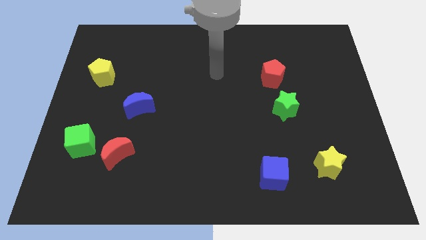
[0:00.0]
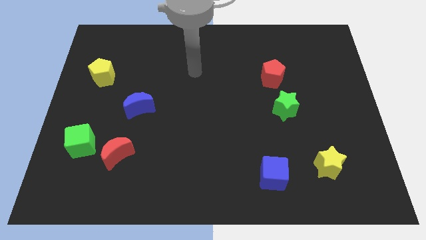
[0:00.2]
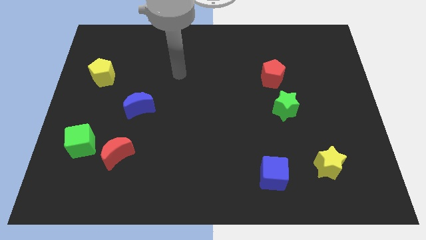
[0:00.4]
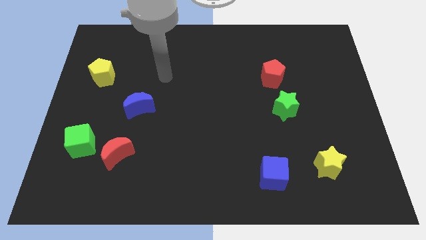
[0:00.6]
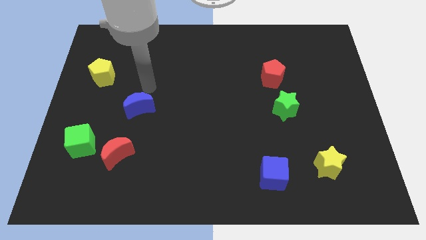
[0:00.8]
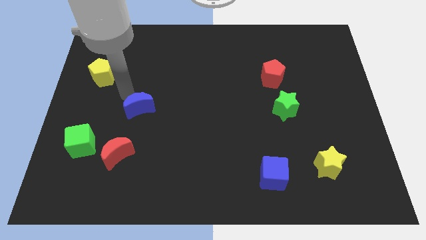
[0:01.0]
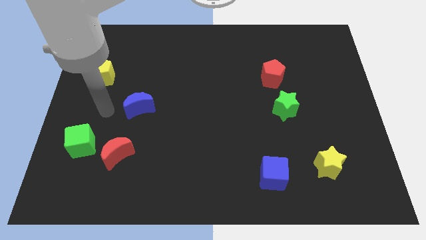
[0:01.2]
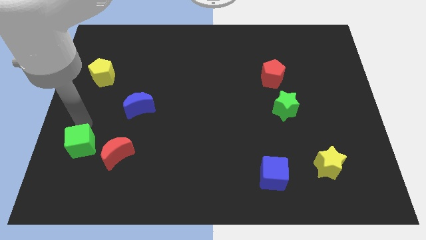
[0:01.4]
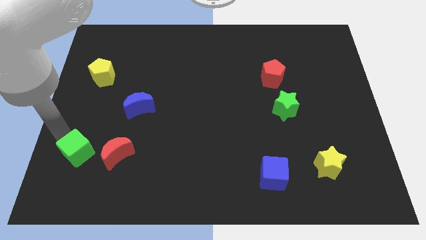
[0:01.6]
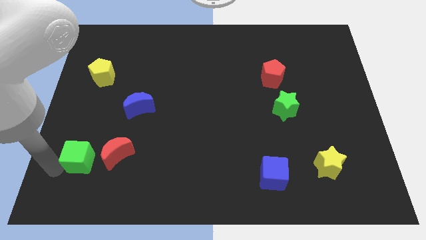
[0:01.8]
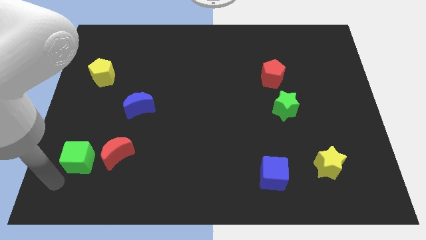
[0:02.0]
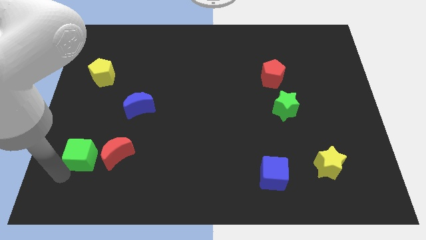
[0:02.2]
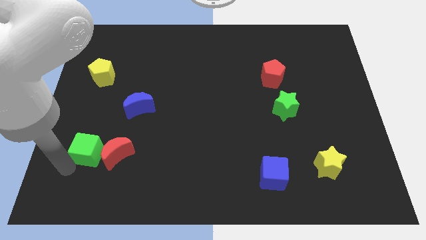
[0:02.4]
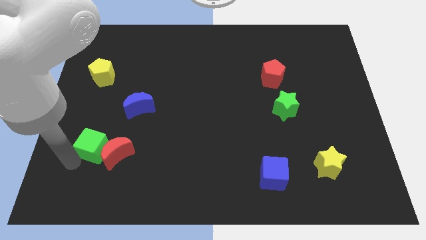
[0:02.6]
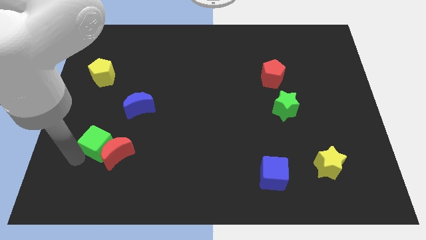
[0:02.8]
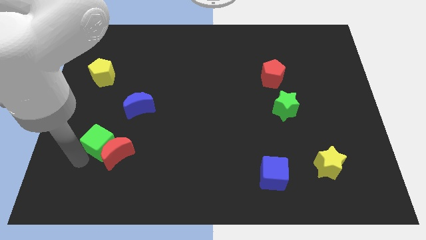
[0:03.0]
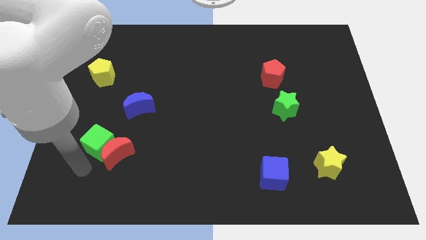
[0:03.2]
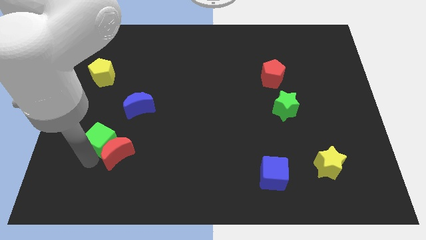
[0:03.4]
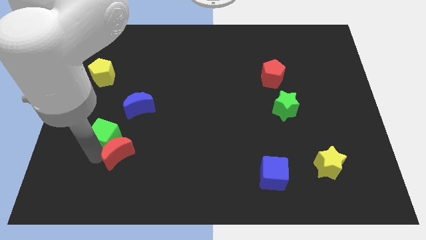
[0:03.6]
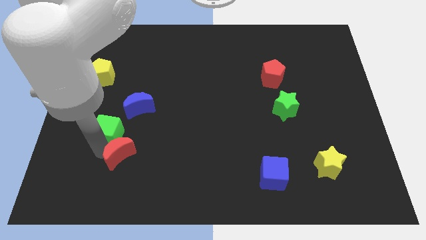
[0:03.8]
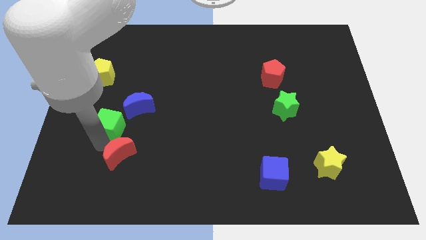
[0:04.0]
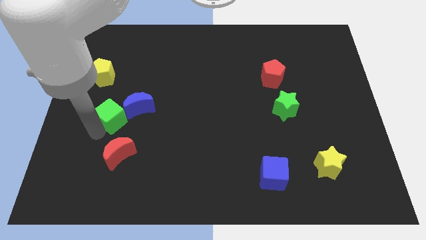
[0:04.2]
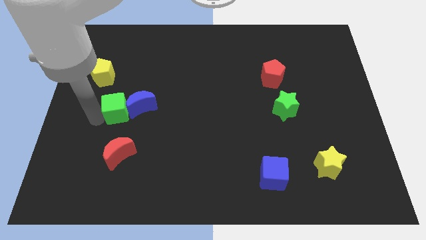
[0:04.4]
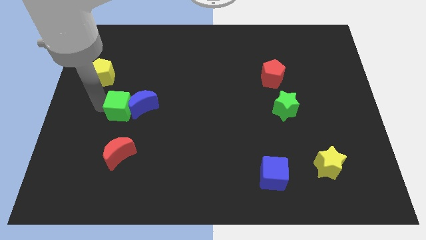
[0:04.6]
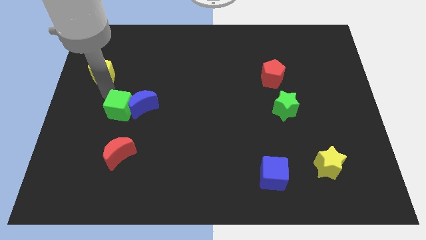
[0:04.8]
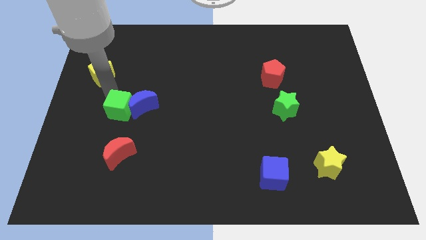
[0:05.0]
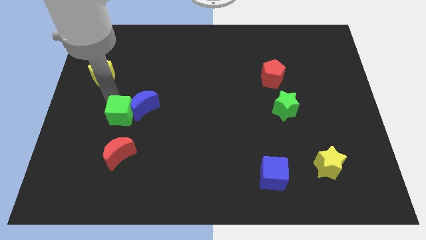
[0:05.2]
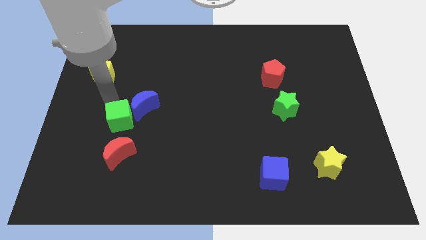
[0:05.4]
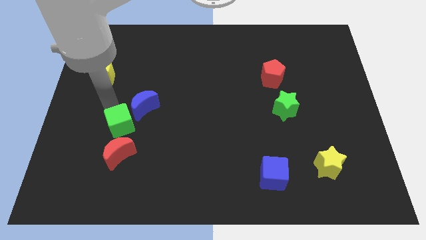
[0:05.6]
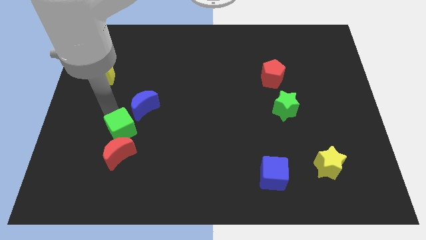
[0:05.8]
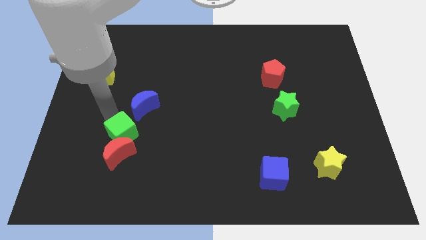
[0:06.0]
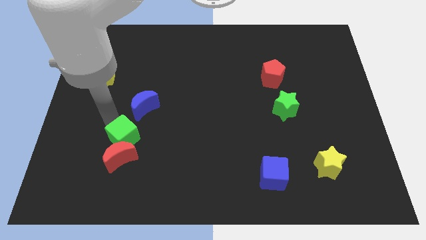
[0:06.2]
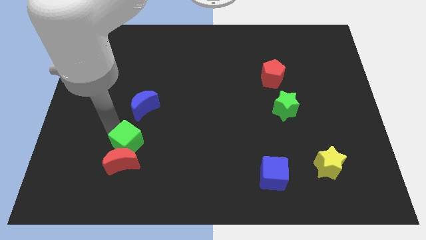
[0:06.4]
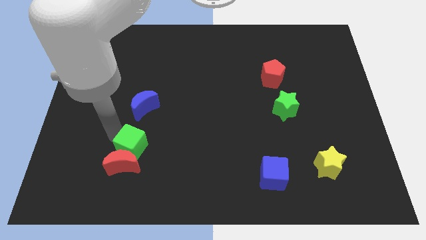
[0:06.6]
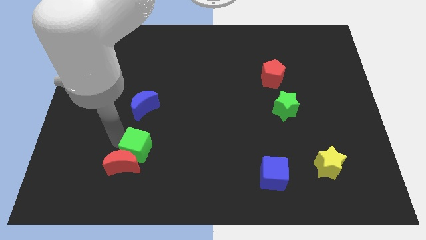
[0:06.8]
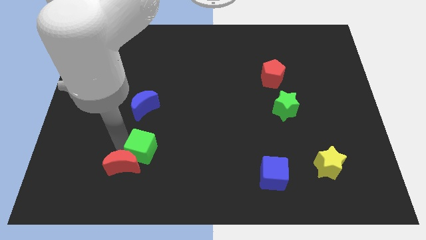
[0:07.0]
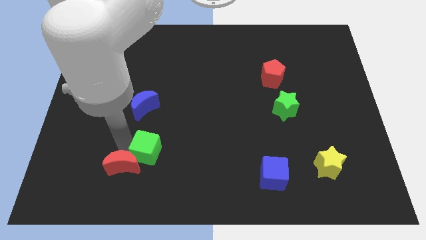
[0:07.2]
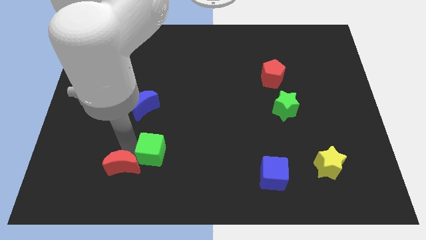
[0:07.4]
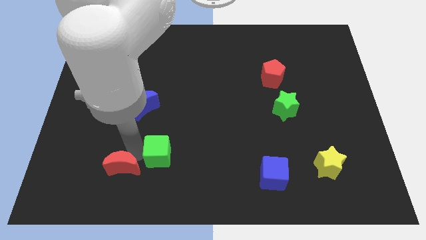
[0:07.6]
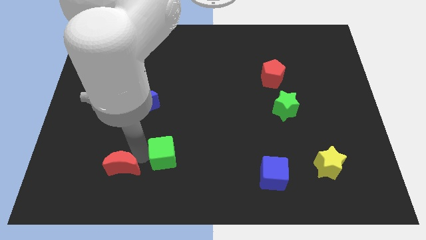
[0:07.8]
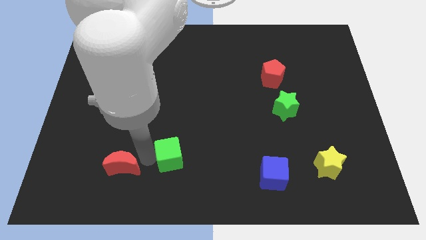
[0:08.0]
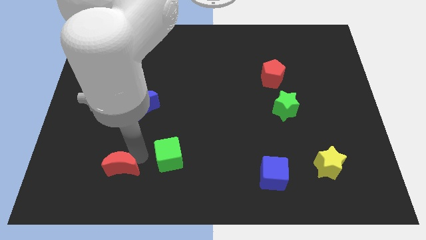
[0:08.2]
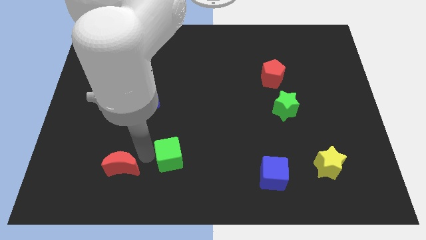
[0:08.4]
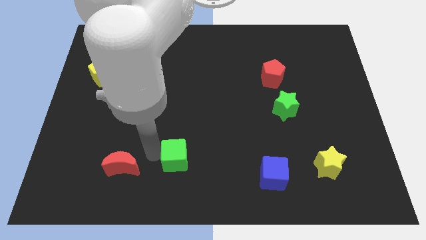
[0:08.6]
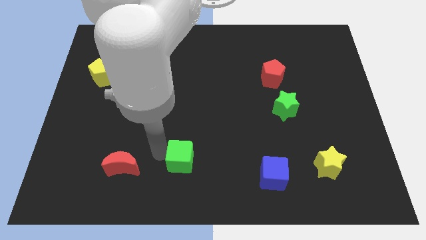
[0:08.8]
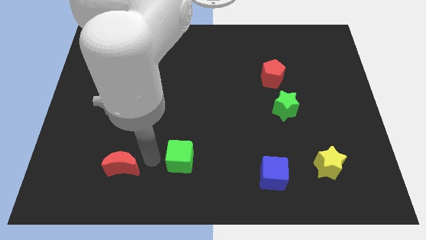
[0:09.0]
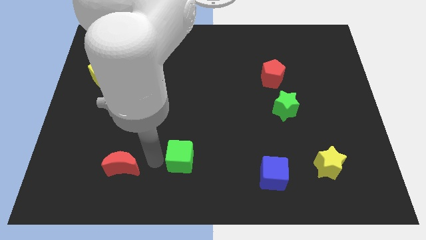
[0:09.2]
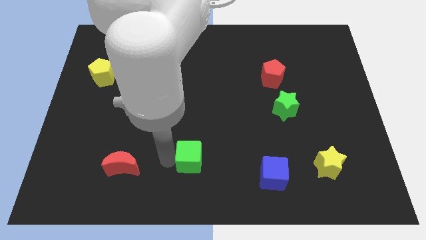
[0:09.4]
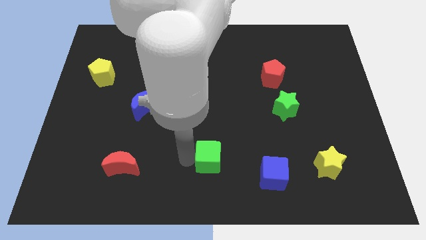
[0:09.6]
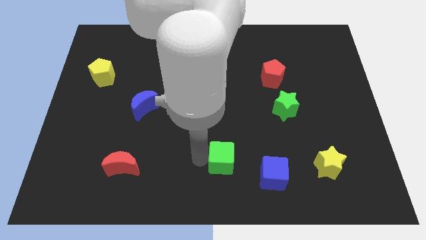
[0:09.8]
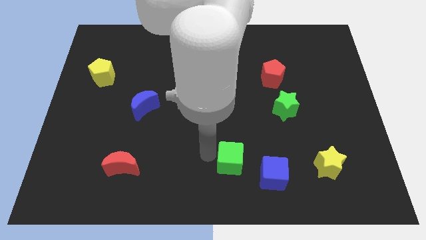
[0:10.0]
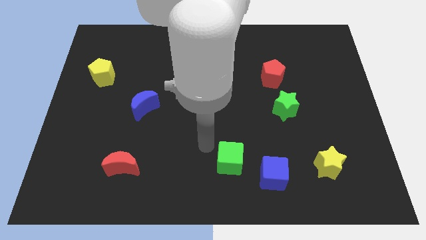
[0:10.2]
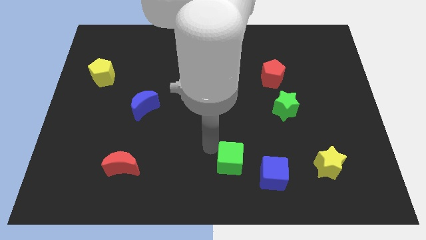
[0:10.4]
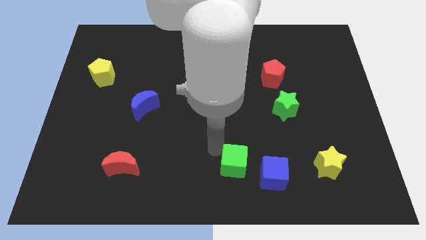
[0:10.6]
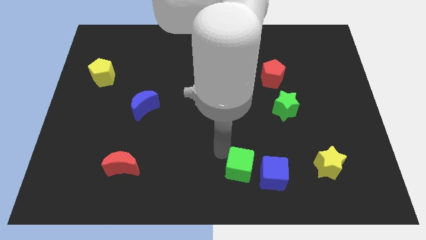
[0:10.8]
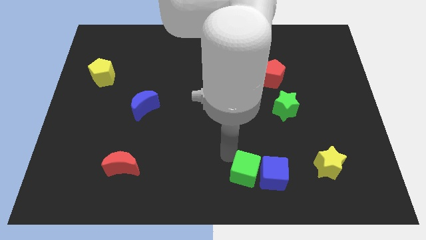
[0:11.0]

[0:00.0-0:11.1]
push the green cube towards the blue cube

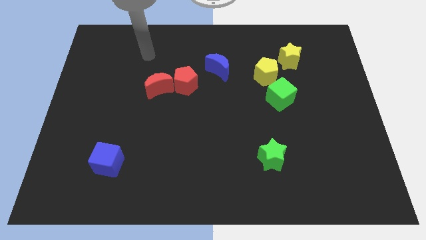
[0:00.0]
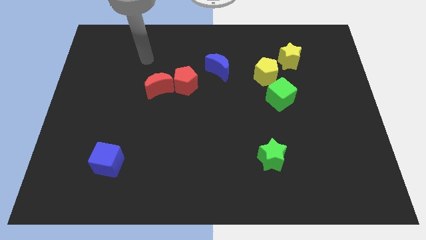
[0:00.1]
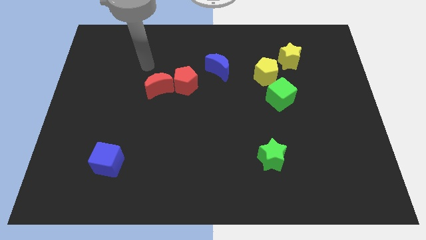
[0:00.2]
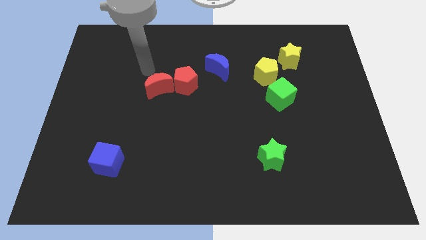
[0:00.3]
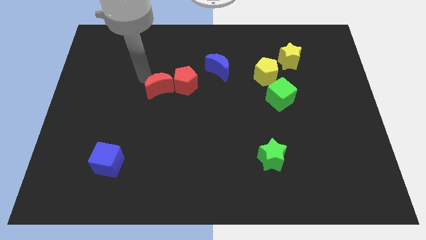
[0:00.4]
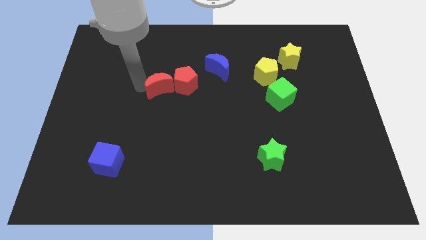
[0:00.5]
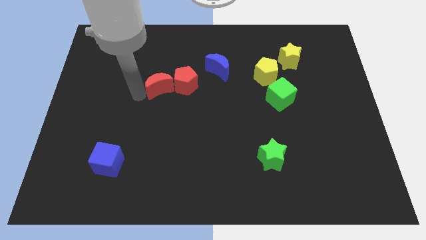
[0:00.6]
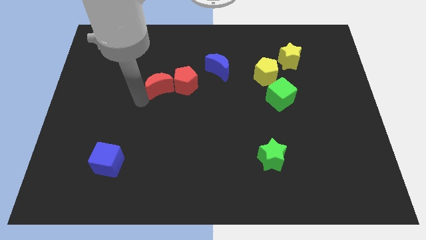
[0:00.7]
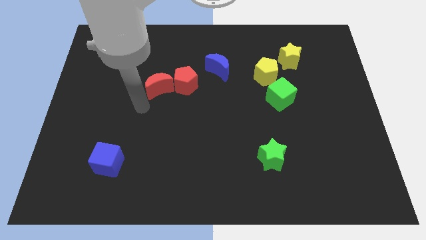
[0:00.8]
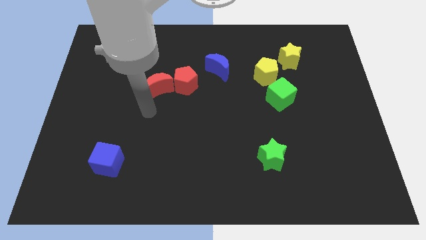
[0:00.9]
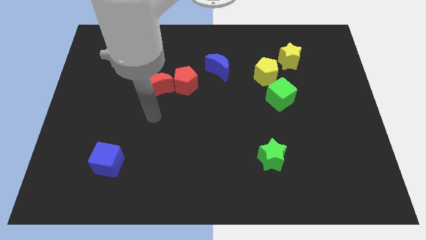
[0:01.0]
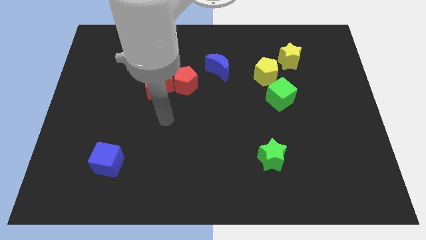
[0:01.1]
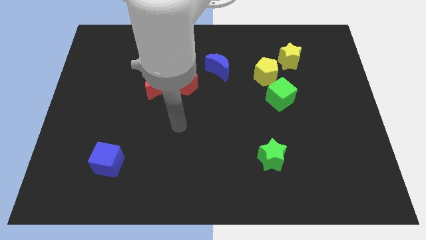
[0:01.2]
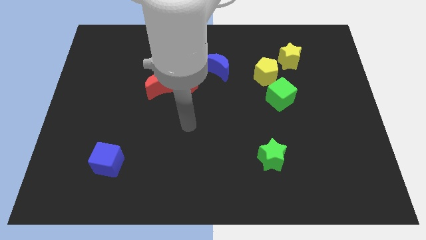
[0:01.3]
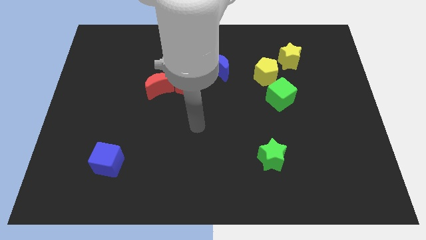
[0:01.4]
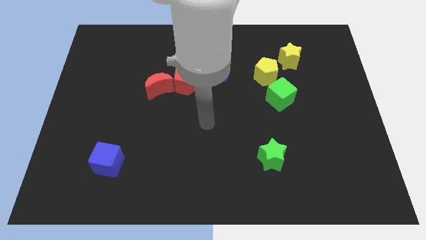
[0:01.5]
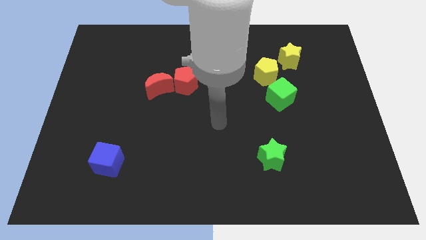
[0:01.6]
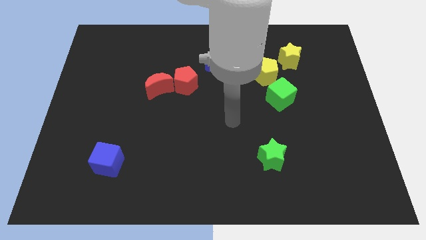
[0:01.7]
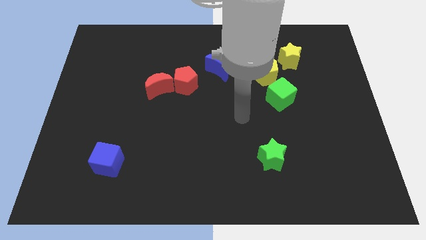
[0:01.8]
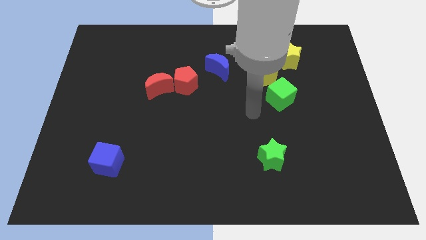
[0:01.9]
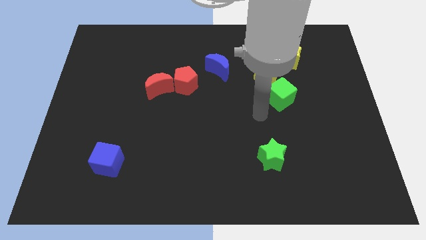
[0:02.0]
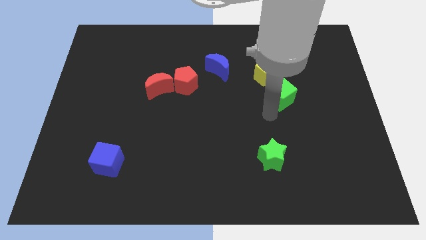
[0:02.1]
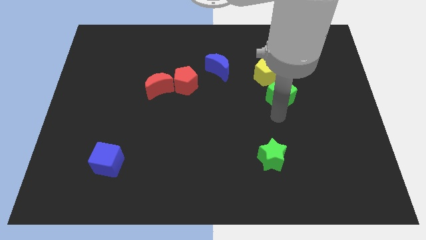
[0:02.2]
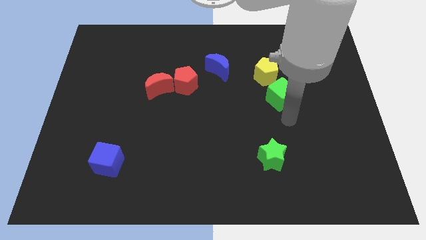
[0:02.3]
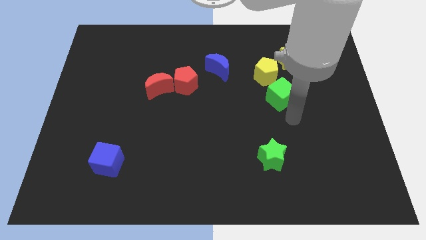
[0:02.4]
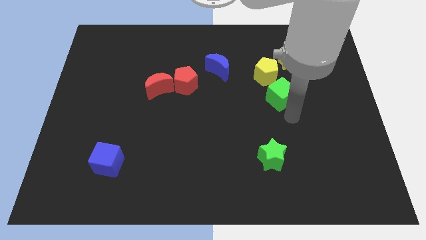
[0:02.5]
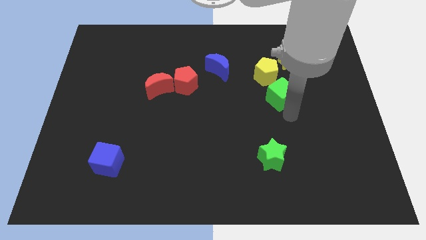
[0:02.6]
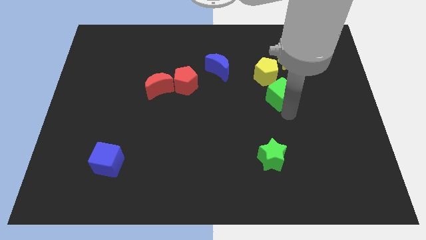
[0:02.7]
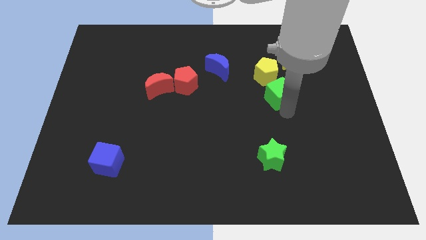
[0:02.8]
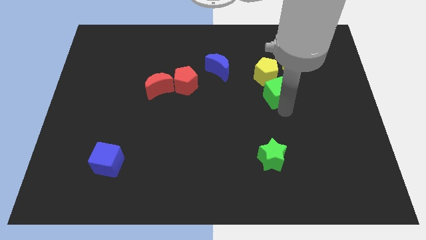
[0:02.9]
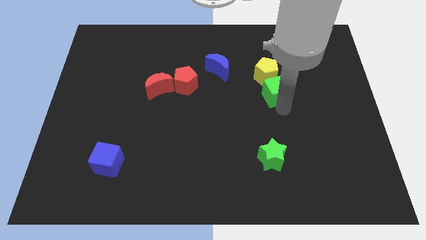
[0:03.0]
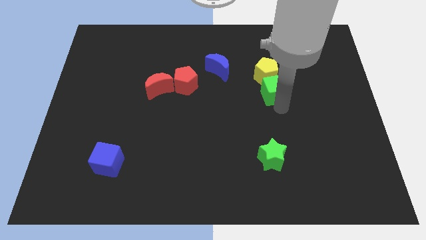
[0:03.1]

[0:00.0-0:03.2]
move the green cube close to the yellow pentagon
